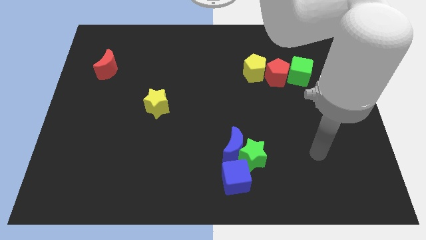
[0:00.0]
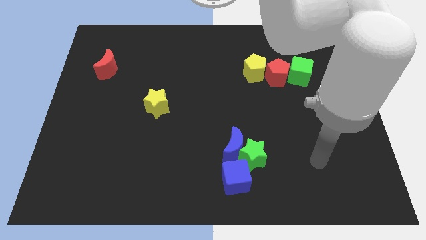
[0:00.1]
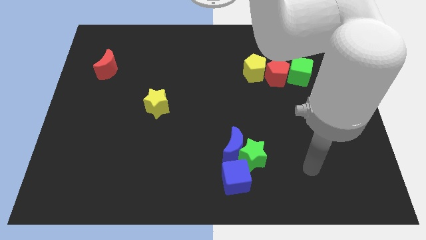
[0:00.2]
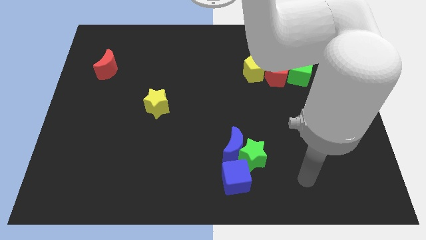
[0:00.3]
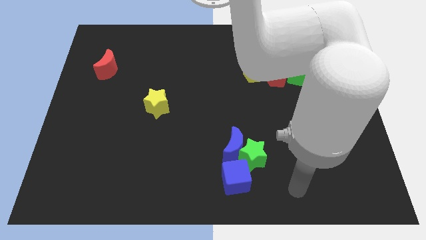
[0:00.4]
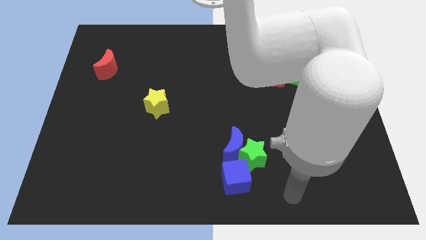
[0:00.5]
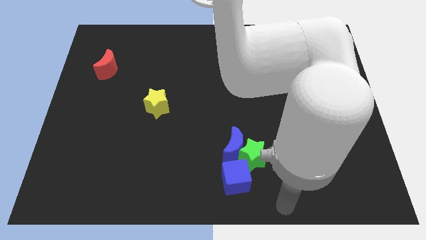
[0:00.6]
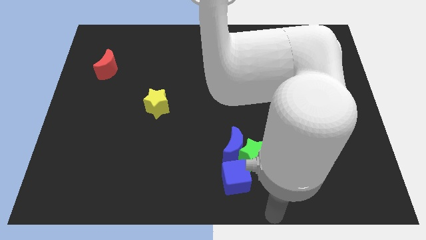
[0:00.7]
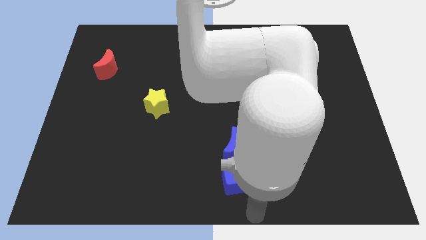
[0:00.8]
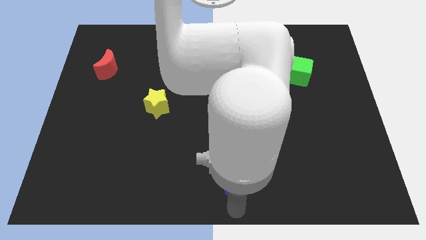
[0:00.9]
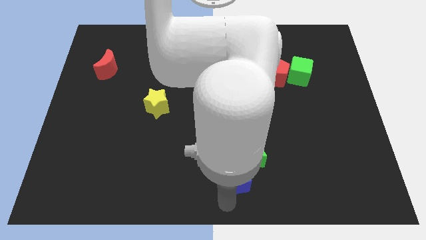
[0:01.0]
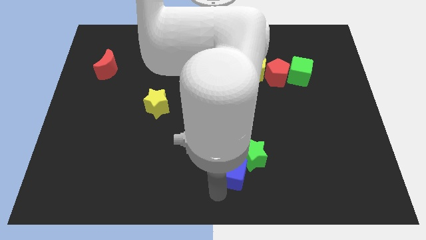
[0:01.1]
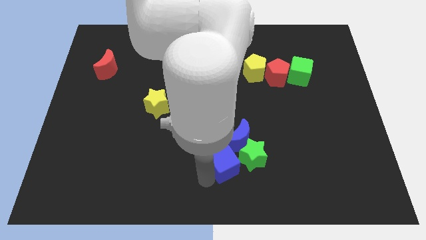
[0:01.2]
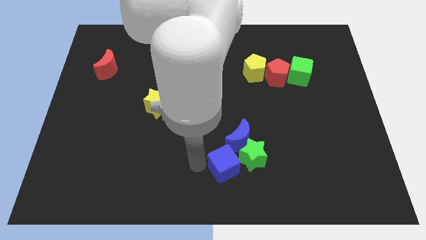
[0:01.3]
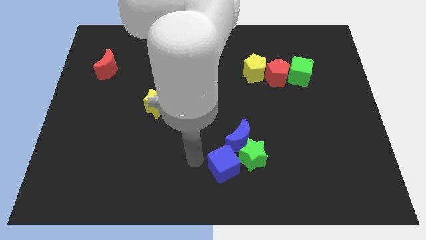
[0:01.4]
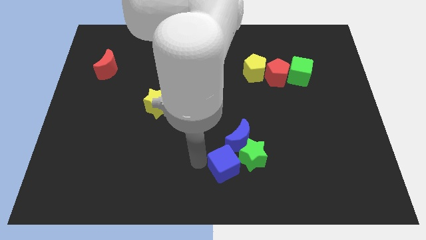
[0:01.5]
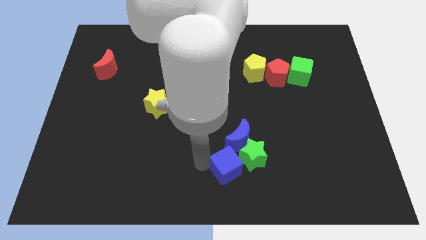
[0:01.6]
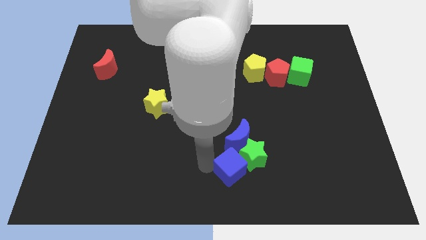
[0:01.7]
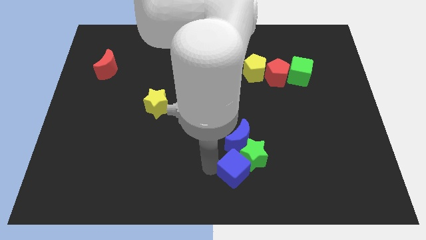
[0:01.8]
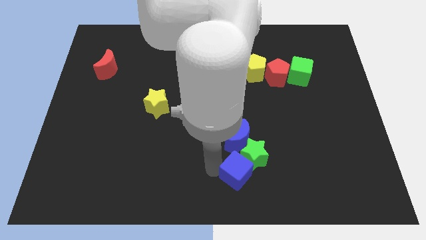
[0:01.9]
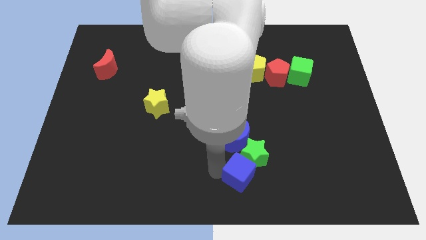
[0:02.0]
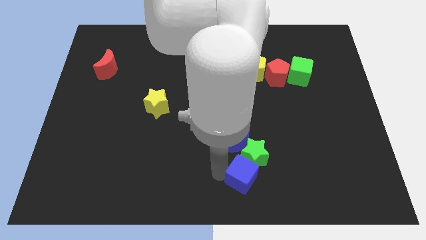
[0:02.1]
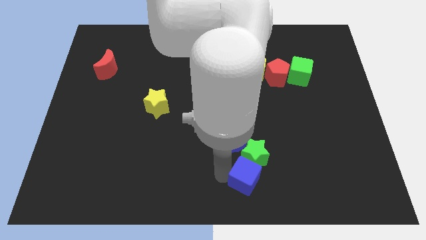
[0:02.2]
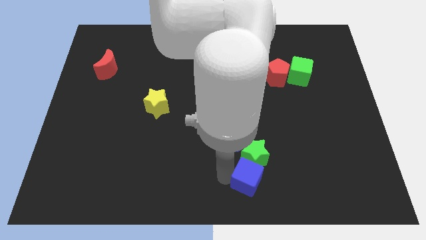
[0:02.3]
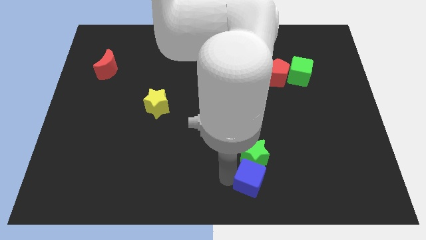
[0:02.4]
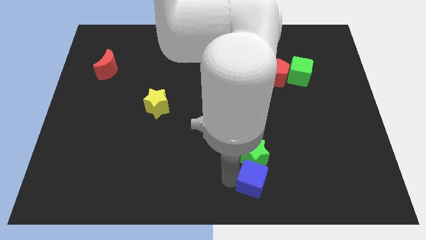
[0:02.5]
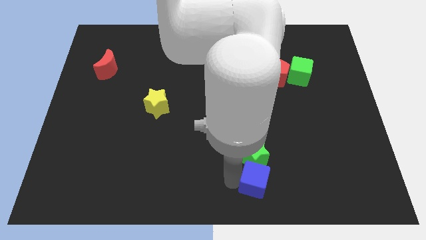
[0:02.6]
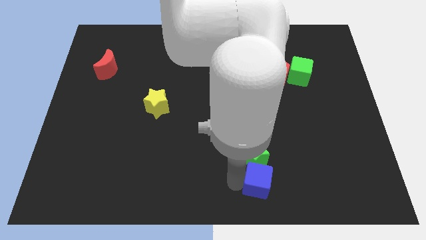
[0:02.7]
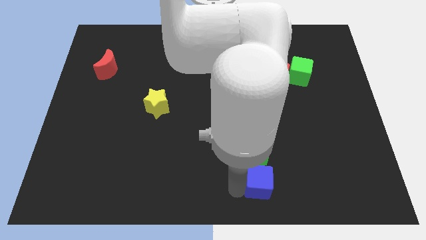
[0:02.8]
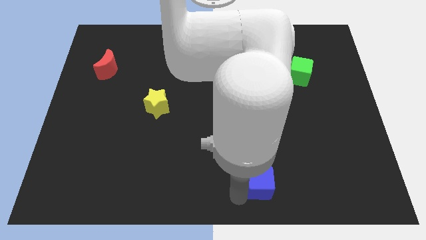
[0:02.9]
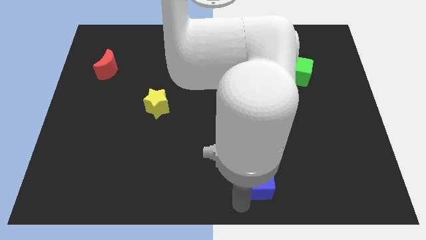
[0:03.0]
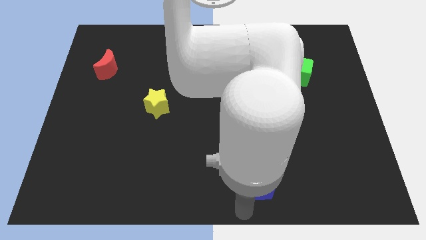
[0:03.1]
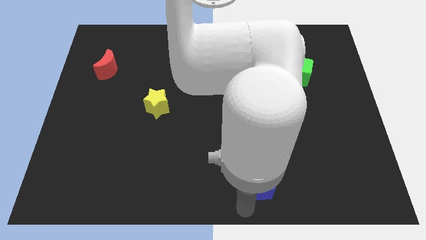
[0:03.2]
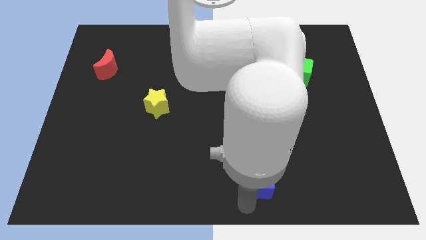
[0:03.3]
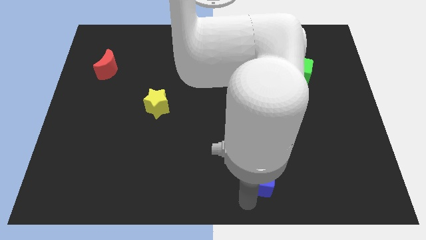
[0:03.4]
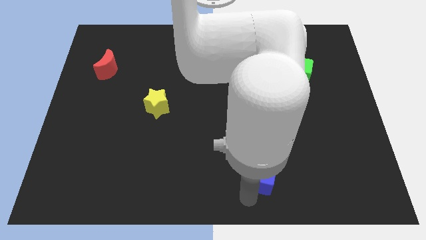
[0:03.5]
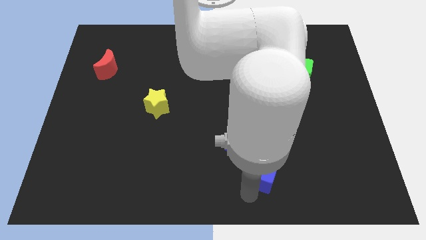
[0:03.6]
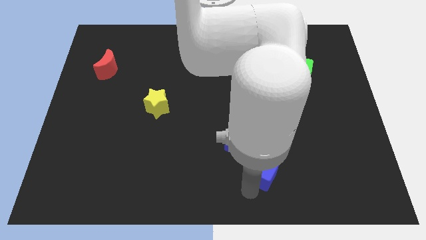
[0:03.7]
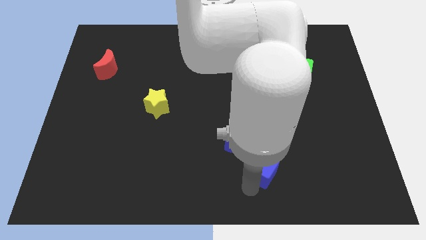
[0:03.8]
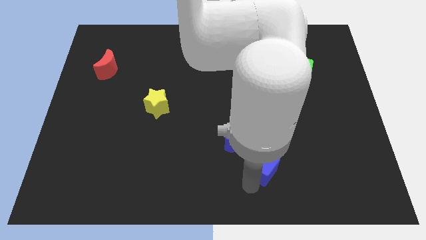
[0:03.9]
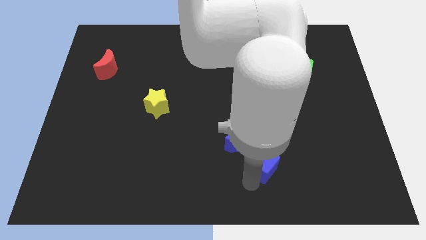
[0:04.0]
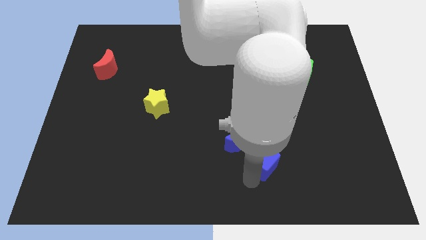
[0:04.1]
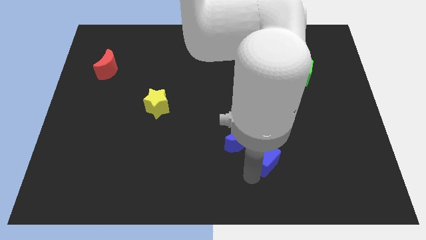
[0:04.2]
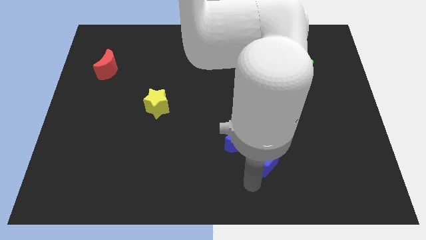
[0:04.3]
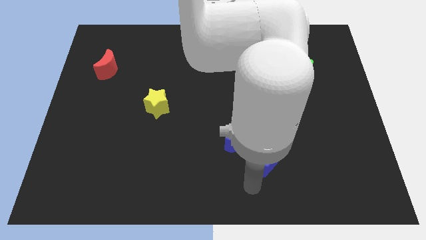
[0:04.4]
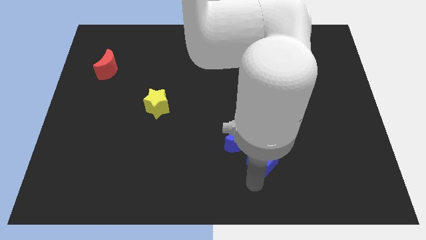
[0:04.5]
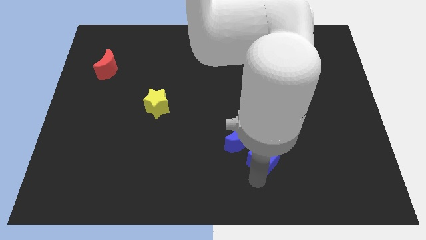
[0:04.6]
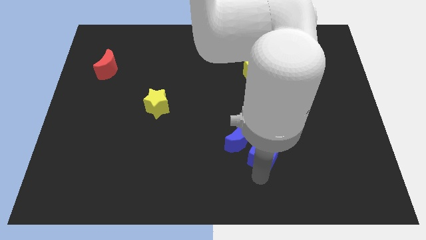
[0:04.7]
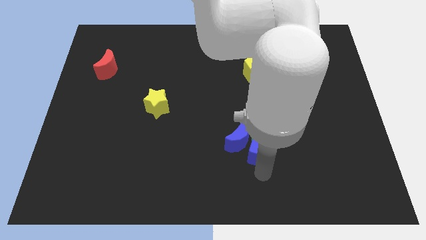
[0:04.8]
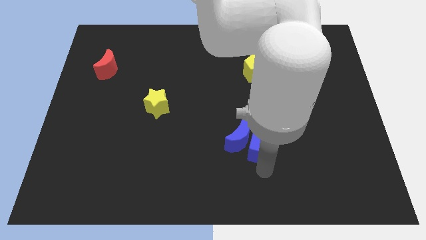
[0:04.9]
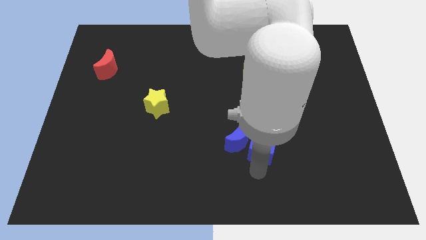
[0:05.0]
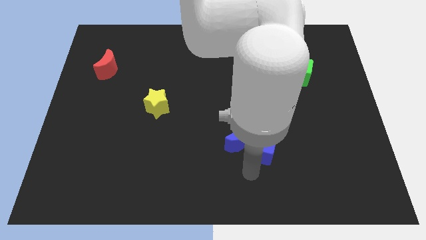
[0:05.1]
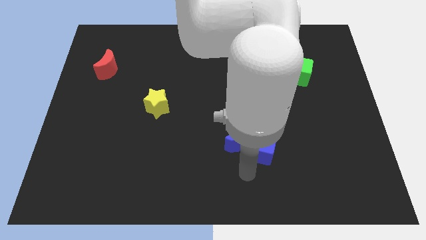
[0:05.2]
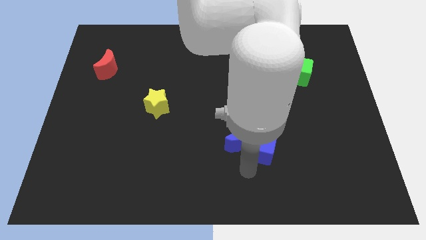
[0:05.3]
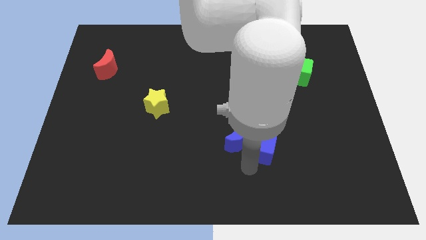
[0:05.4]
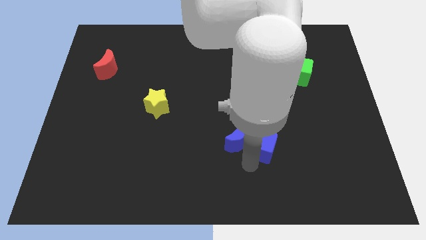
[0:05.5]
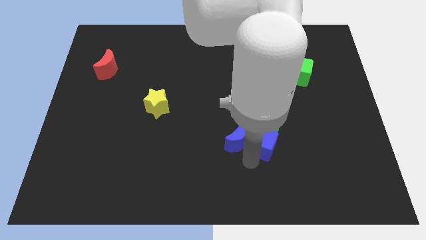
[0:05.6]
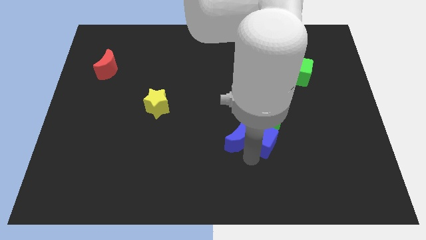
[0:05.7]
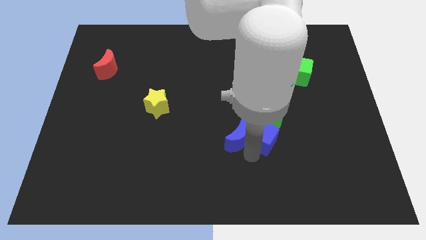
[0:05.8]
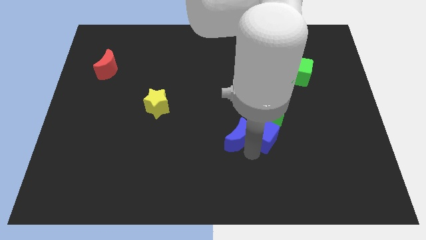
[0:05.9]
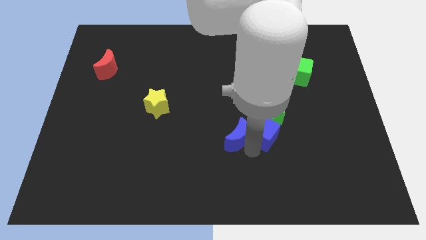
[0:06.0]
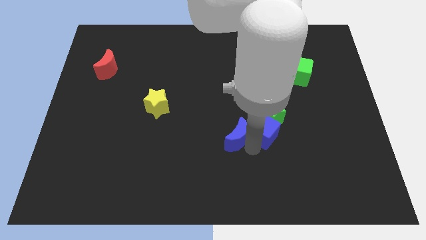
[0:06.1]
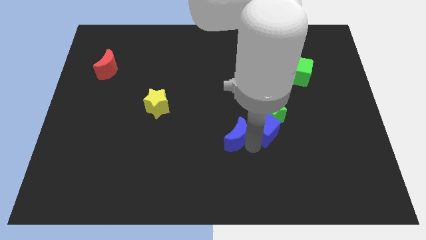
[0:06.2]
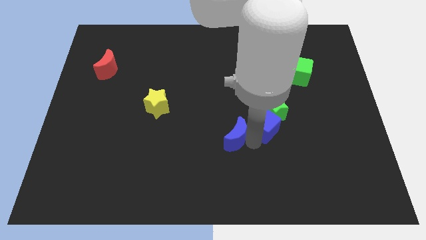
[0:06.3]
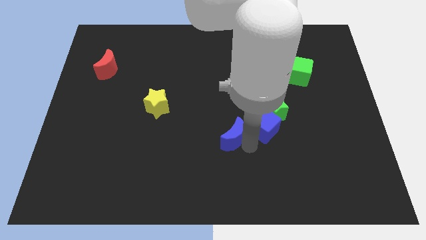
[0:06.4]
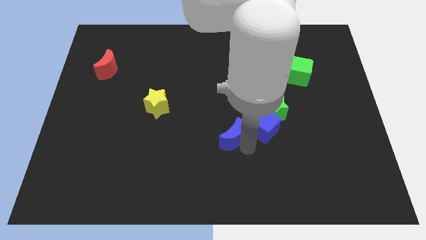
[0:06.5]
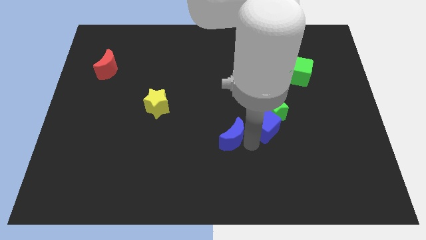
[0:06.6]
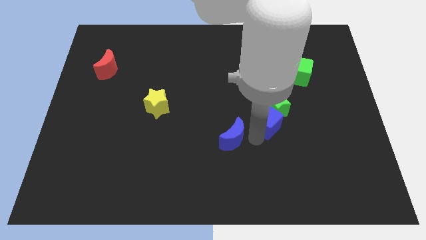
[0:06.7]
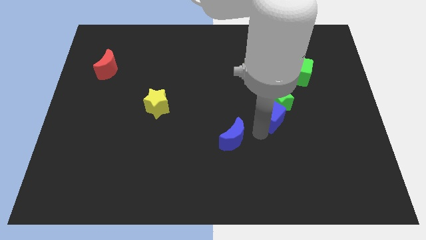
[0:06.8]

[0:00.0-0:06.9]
slide the blue cube below the red pentagon

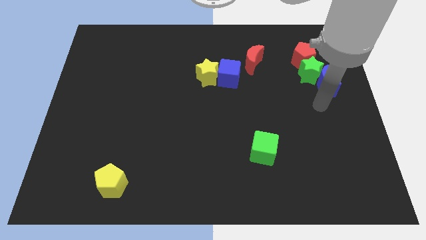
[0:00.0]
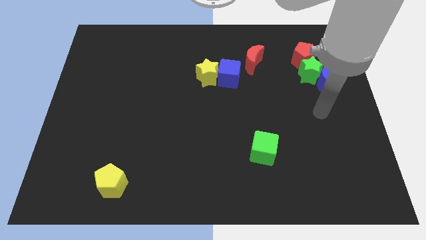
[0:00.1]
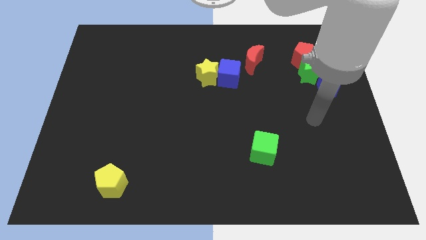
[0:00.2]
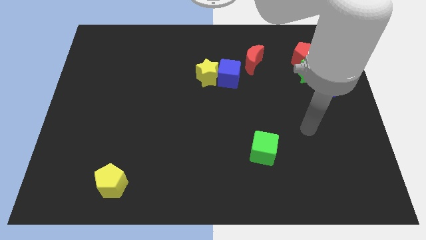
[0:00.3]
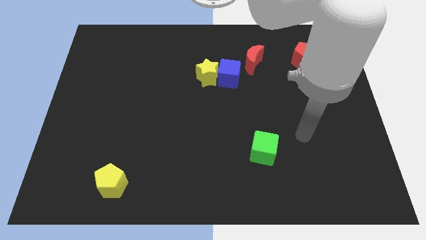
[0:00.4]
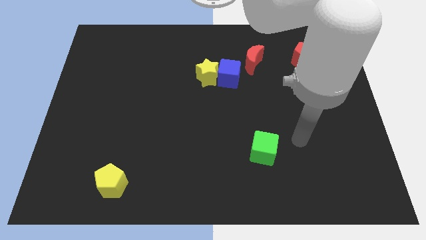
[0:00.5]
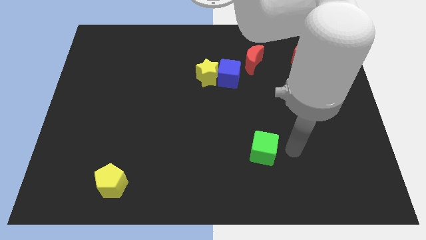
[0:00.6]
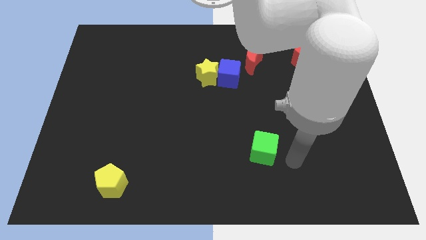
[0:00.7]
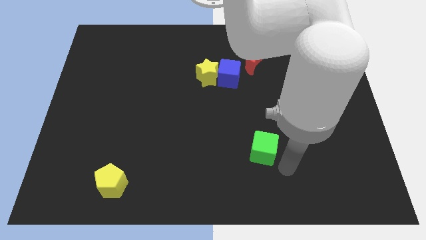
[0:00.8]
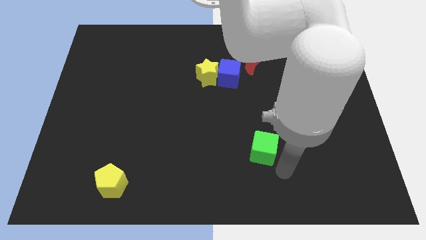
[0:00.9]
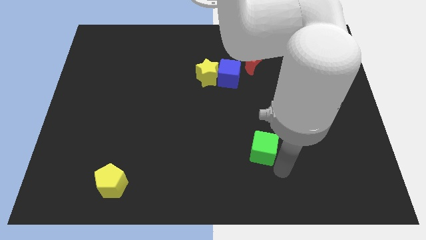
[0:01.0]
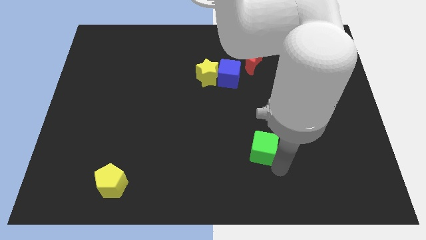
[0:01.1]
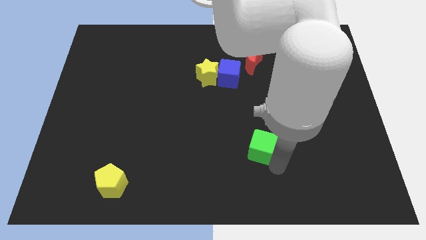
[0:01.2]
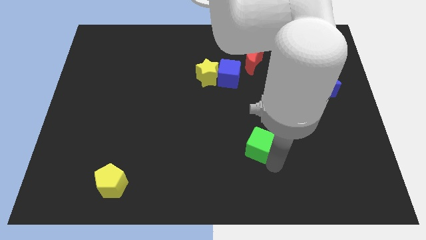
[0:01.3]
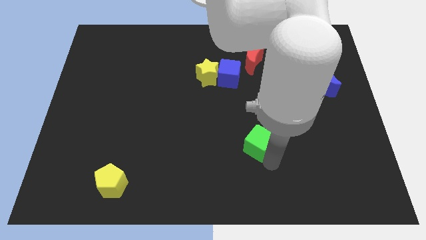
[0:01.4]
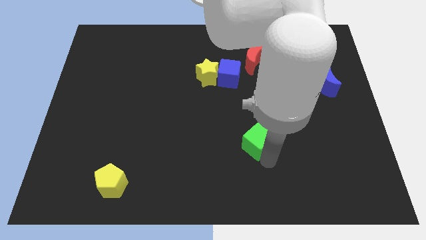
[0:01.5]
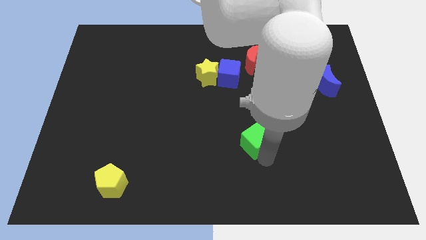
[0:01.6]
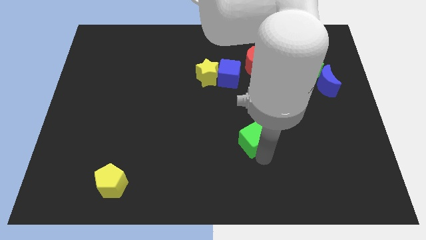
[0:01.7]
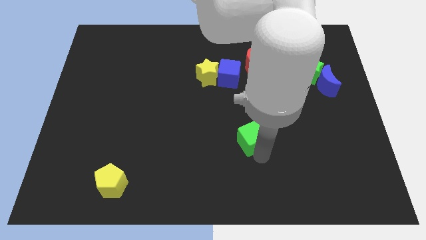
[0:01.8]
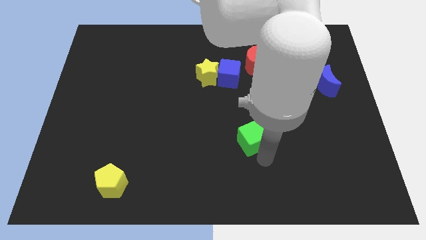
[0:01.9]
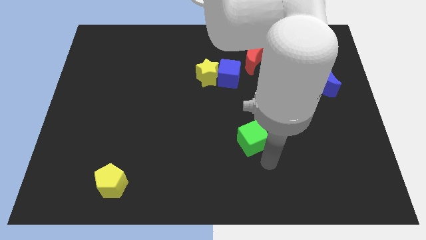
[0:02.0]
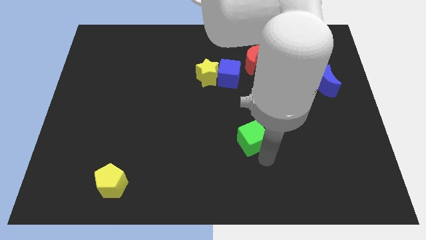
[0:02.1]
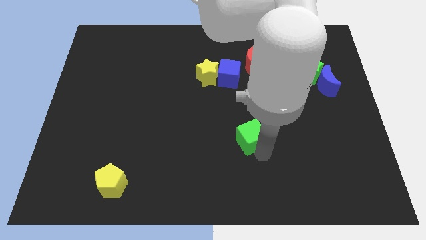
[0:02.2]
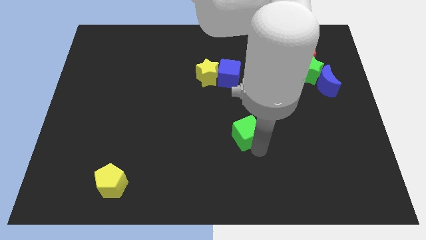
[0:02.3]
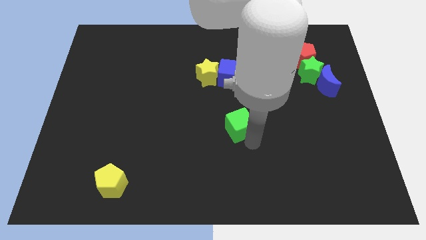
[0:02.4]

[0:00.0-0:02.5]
push the green cube to the bottom of the blue cube
